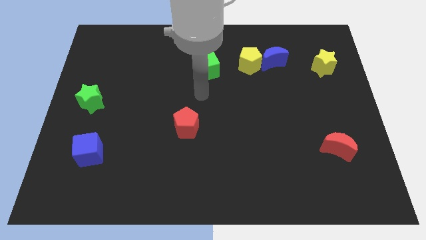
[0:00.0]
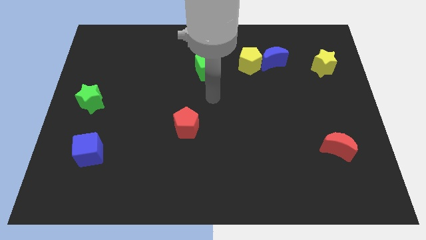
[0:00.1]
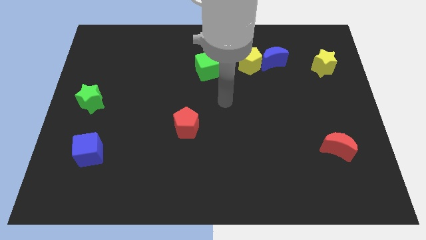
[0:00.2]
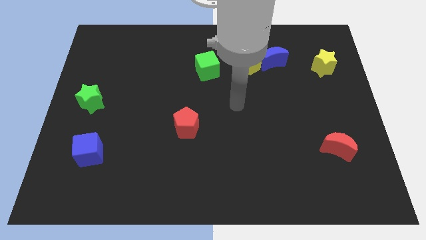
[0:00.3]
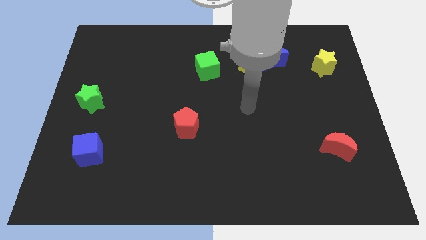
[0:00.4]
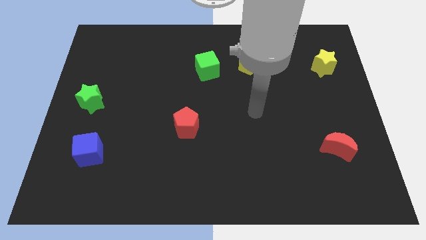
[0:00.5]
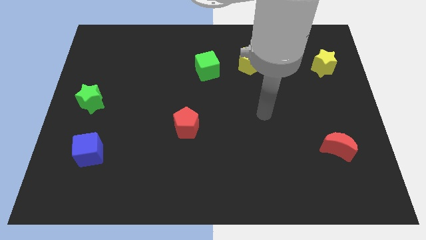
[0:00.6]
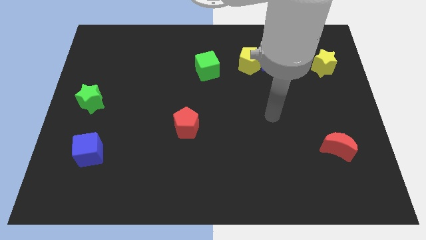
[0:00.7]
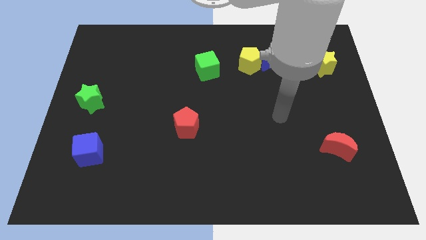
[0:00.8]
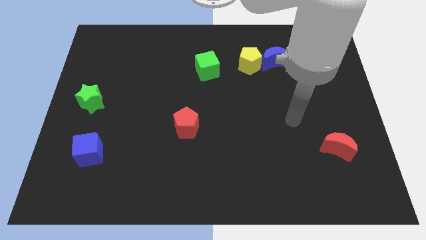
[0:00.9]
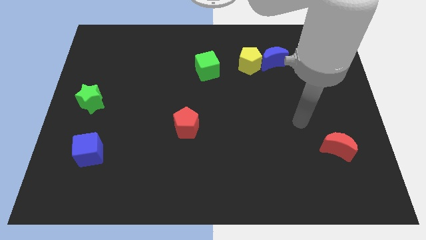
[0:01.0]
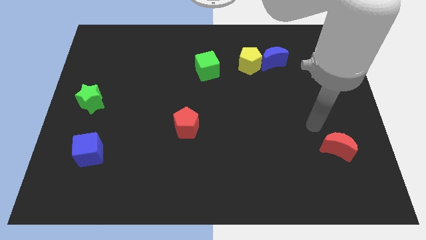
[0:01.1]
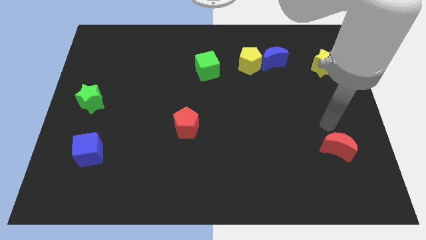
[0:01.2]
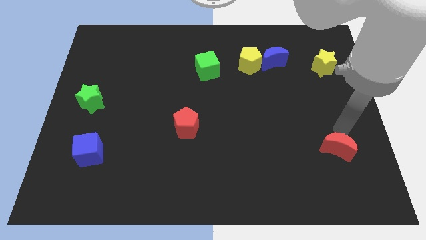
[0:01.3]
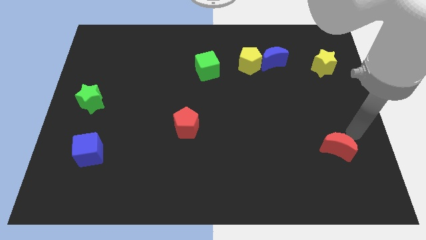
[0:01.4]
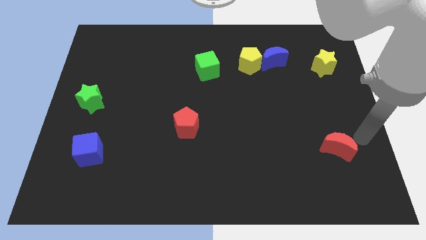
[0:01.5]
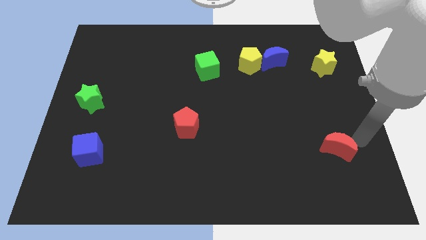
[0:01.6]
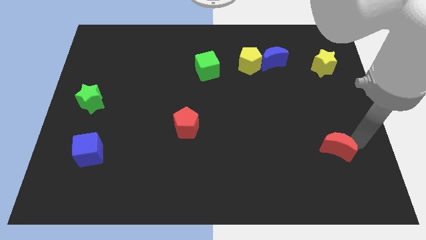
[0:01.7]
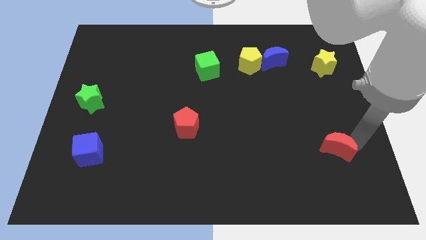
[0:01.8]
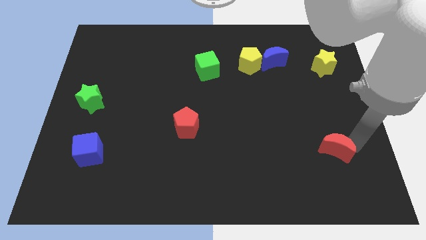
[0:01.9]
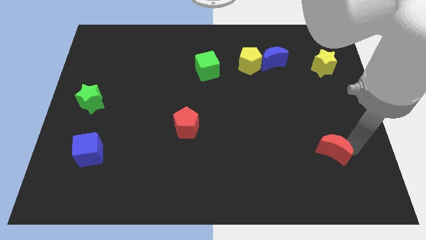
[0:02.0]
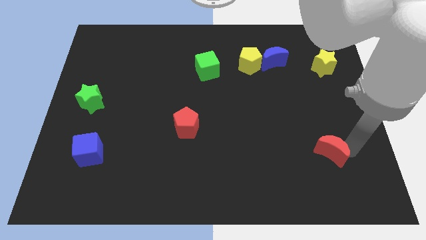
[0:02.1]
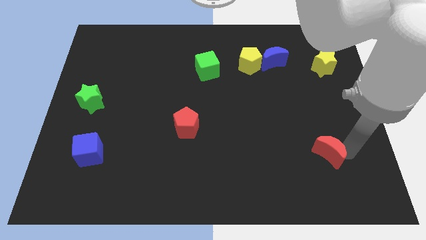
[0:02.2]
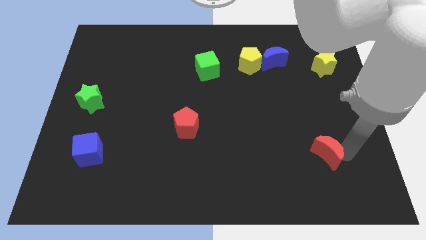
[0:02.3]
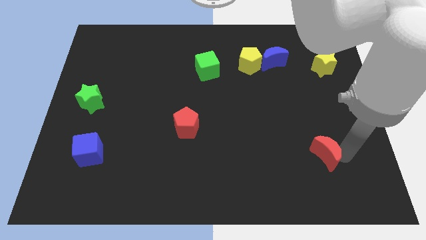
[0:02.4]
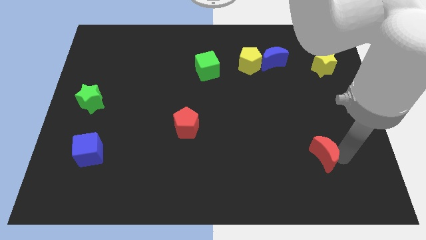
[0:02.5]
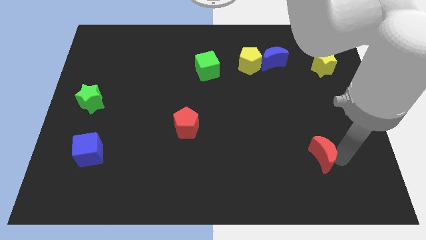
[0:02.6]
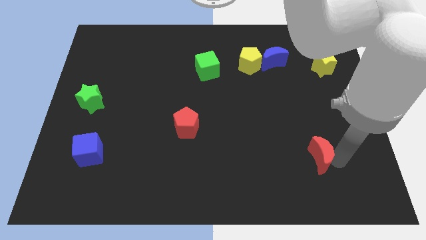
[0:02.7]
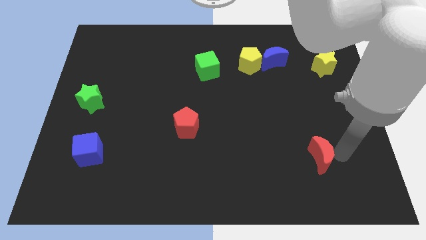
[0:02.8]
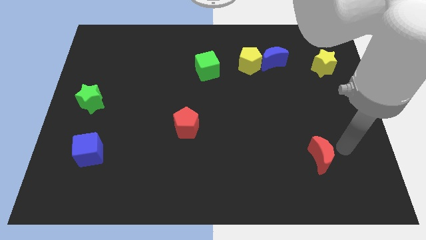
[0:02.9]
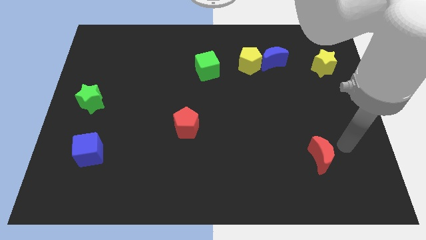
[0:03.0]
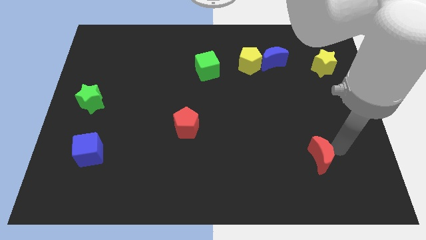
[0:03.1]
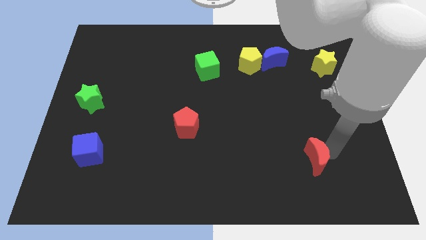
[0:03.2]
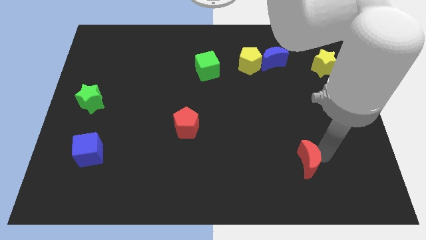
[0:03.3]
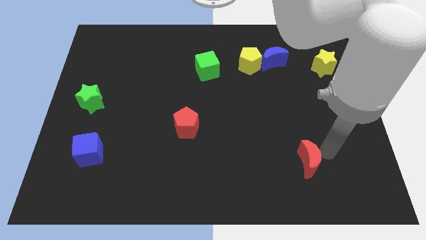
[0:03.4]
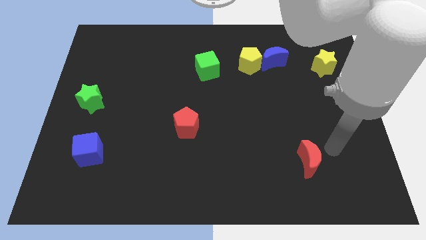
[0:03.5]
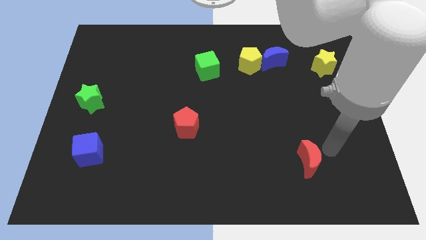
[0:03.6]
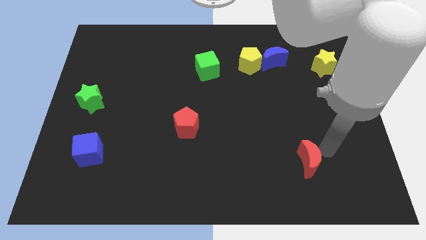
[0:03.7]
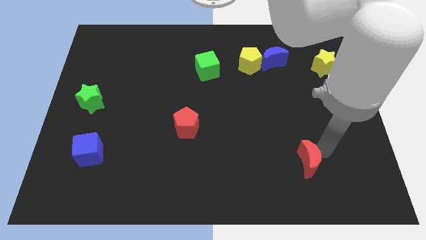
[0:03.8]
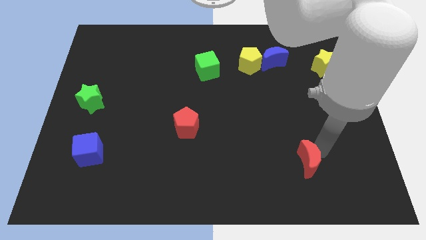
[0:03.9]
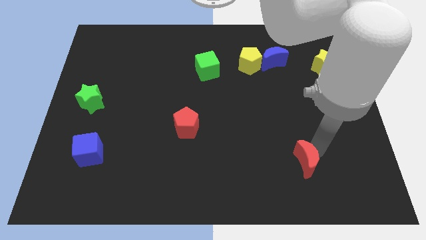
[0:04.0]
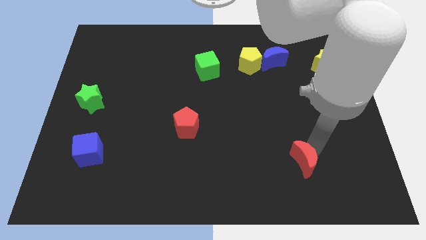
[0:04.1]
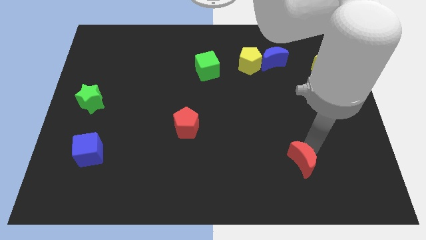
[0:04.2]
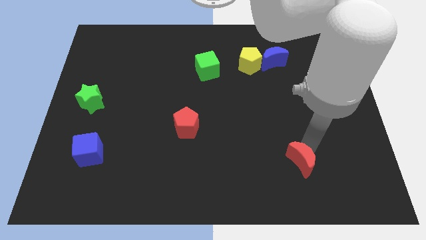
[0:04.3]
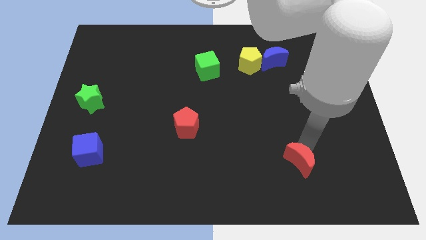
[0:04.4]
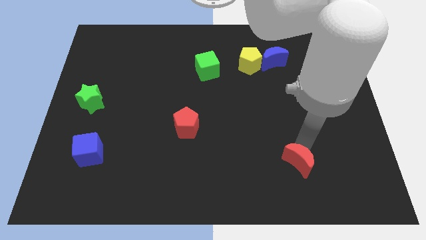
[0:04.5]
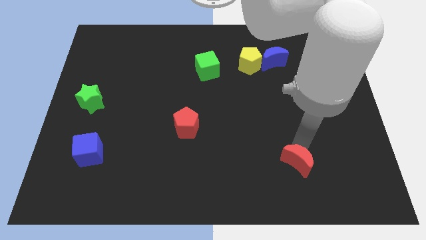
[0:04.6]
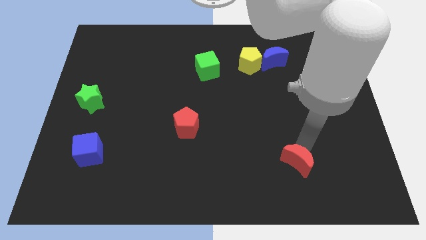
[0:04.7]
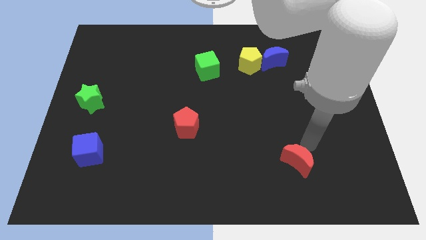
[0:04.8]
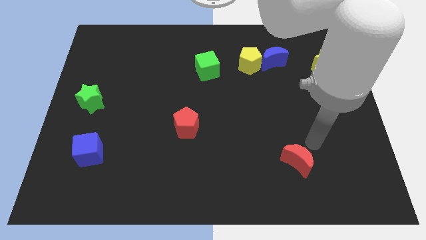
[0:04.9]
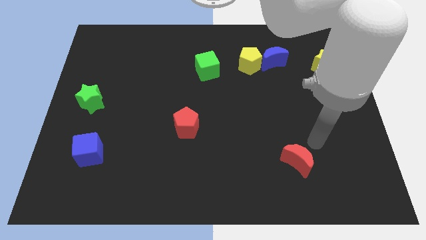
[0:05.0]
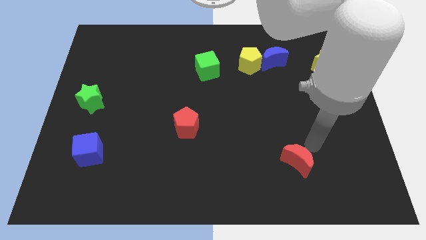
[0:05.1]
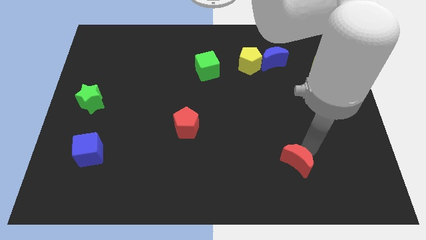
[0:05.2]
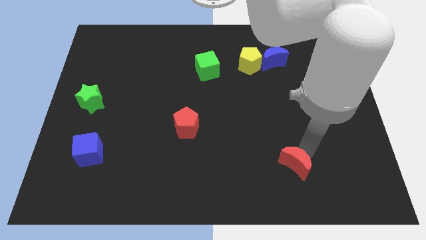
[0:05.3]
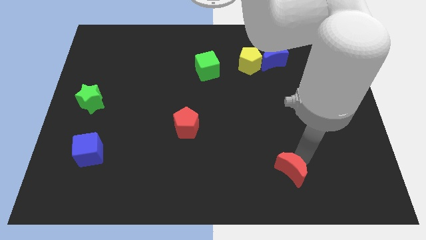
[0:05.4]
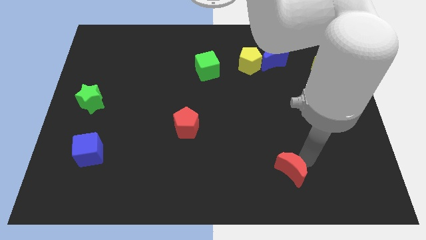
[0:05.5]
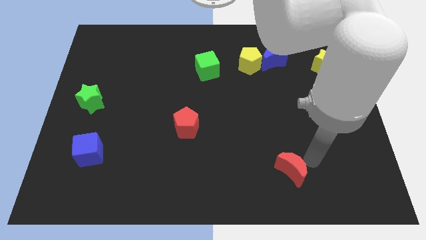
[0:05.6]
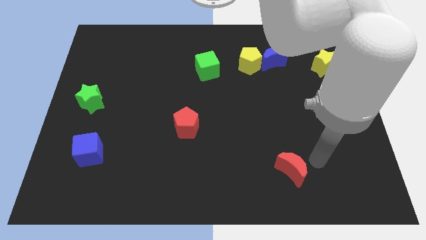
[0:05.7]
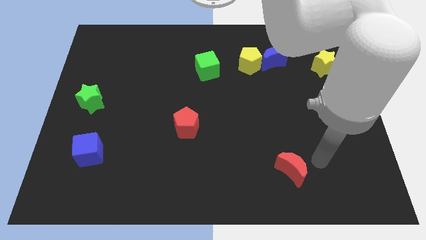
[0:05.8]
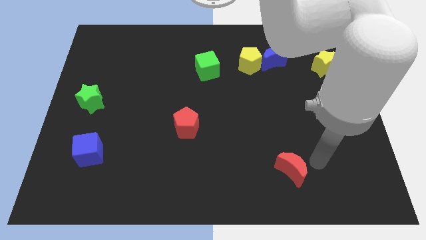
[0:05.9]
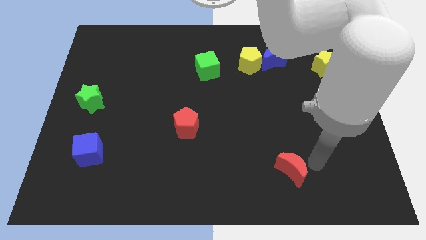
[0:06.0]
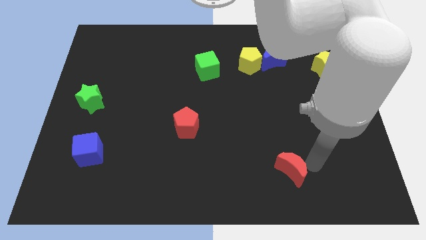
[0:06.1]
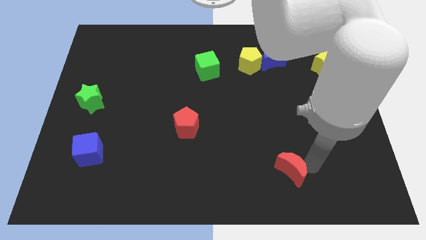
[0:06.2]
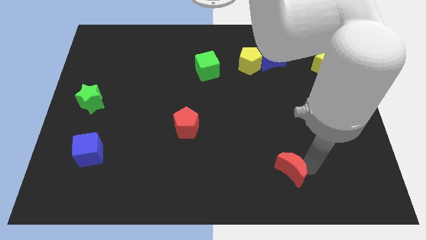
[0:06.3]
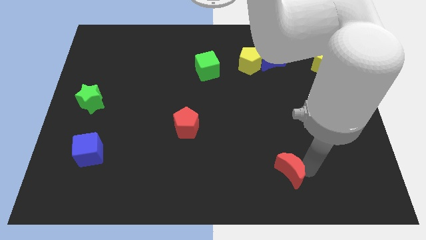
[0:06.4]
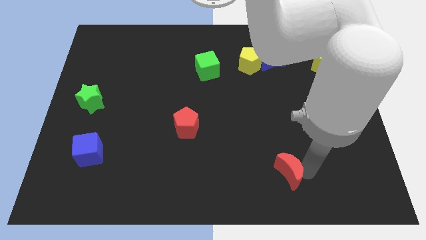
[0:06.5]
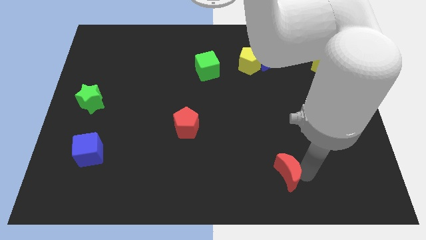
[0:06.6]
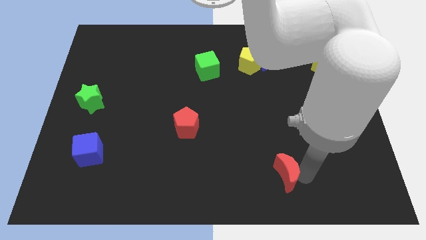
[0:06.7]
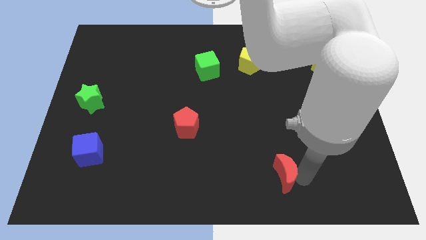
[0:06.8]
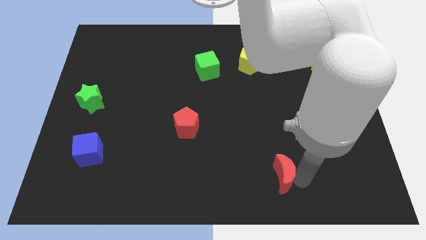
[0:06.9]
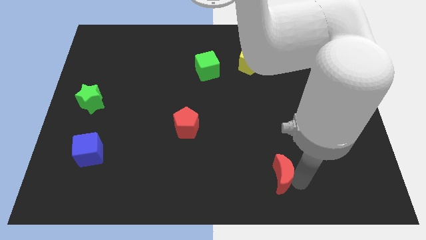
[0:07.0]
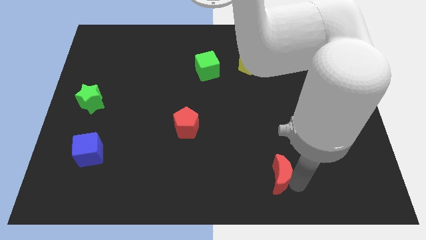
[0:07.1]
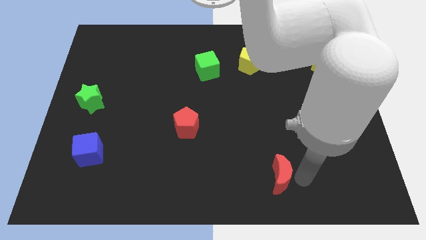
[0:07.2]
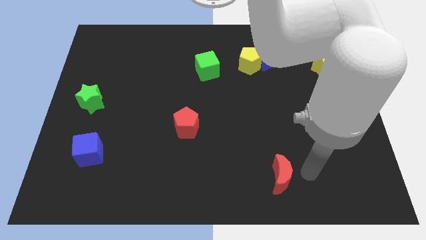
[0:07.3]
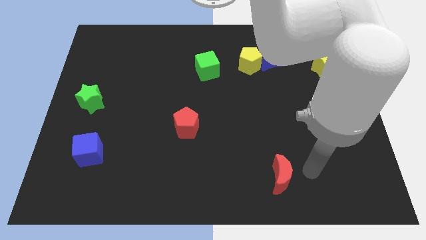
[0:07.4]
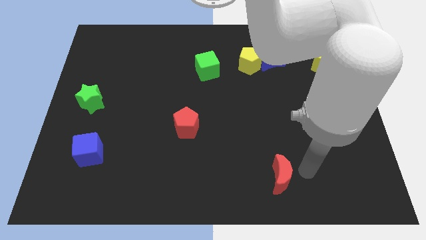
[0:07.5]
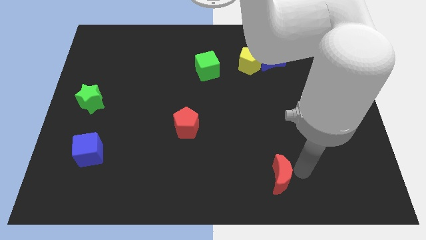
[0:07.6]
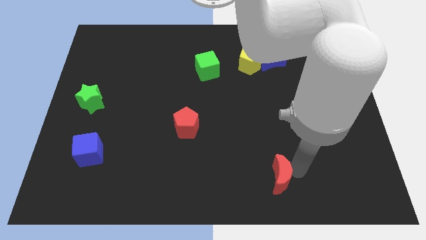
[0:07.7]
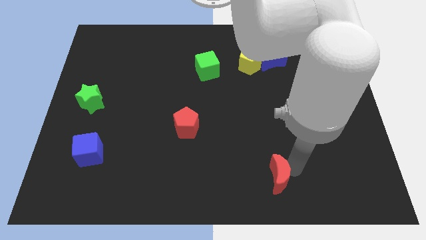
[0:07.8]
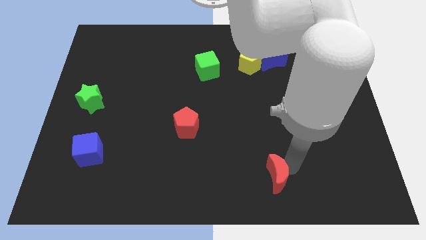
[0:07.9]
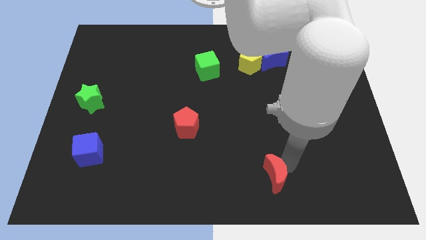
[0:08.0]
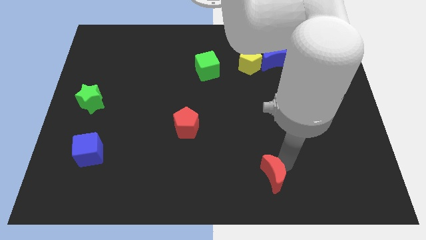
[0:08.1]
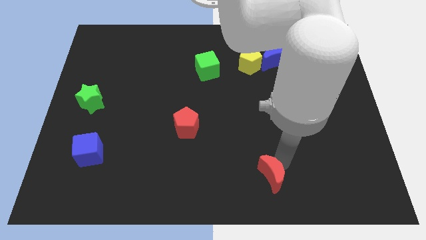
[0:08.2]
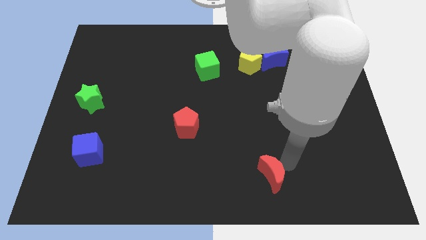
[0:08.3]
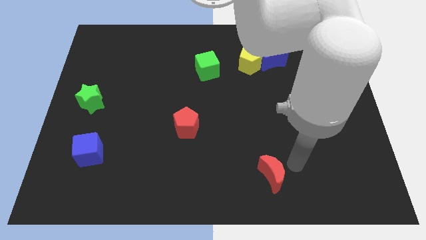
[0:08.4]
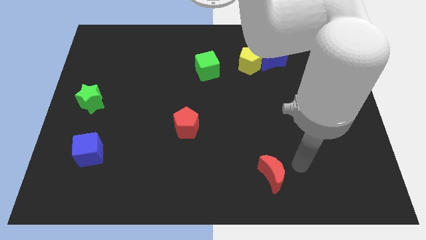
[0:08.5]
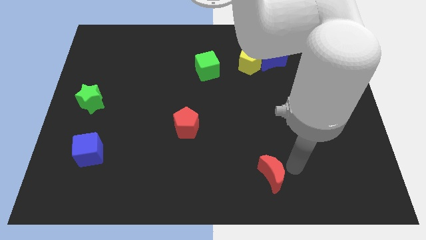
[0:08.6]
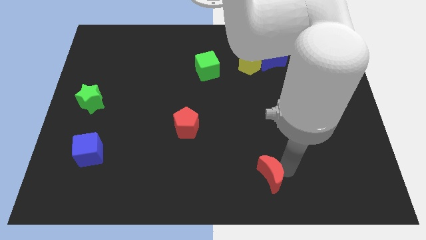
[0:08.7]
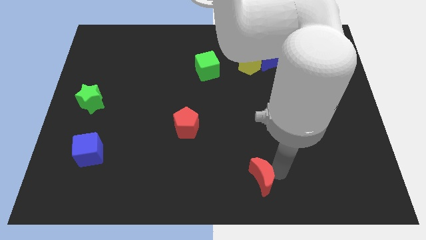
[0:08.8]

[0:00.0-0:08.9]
move the red moon to the bottom side
